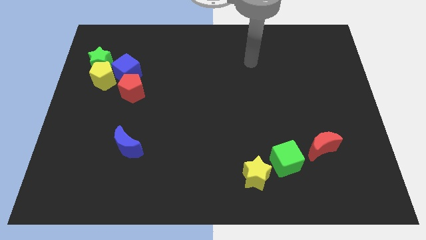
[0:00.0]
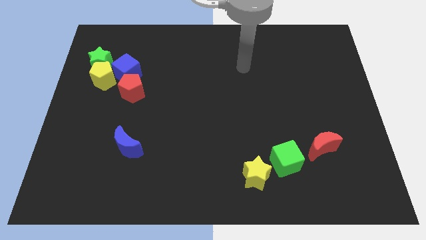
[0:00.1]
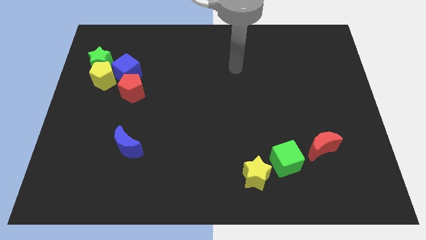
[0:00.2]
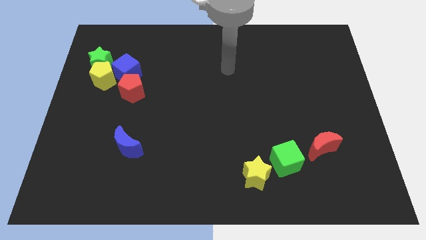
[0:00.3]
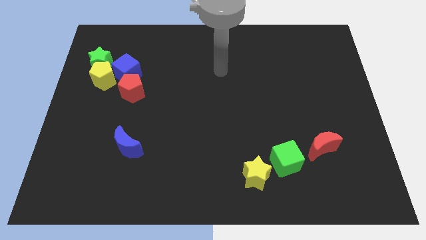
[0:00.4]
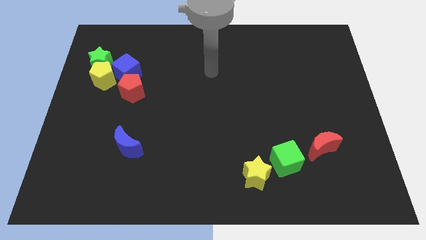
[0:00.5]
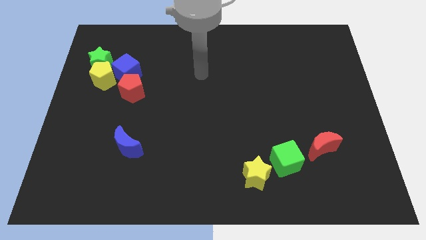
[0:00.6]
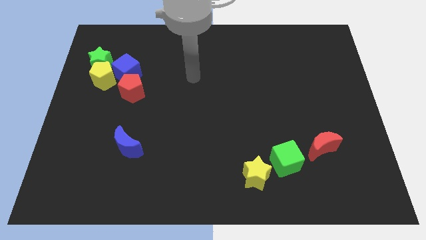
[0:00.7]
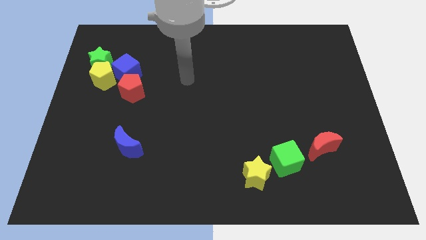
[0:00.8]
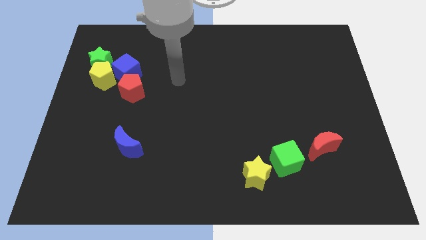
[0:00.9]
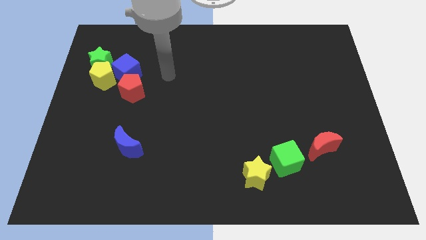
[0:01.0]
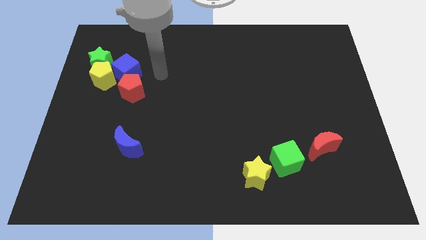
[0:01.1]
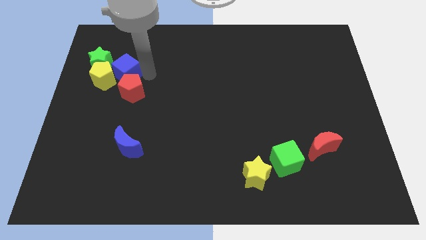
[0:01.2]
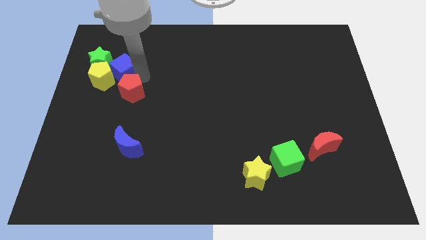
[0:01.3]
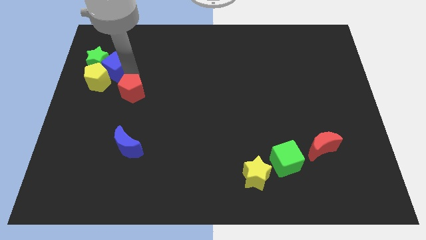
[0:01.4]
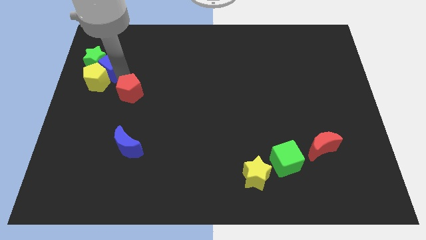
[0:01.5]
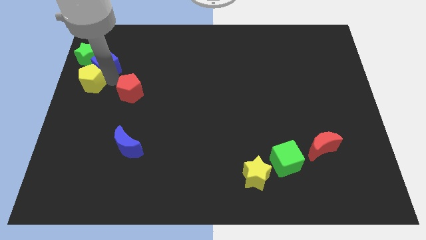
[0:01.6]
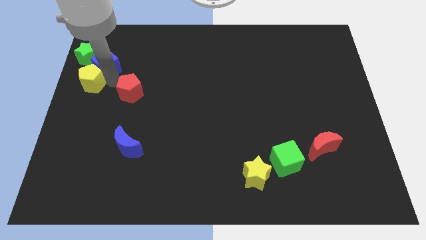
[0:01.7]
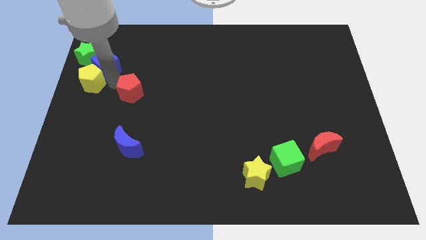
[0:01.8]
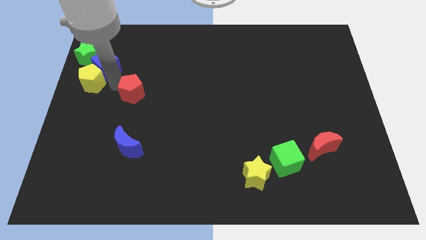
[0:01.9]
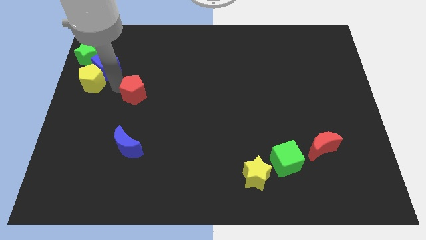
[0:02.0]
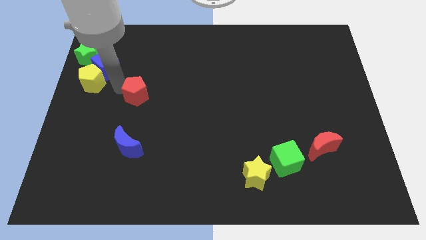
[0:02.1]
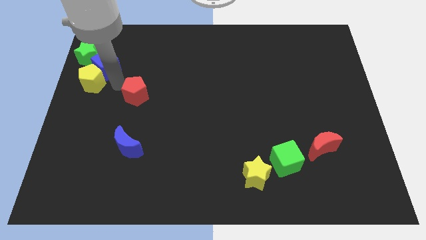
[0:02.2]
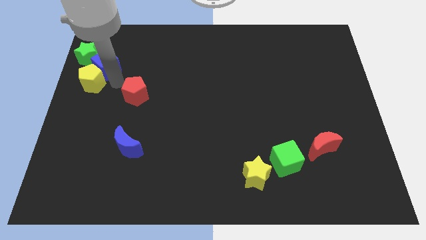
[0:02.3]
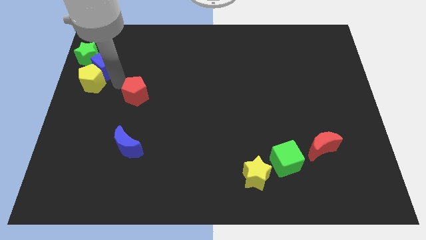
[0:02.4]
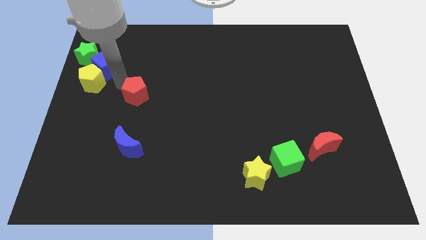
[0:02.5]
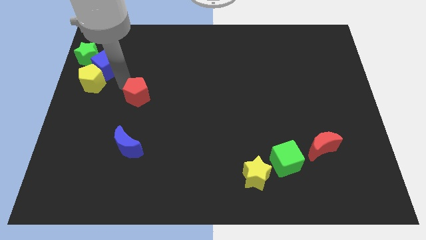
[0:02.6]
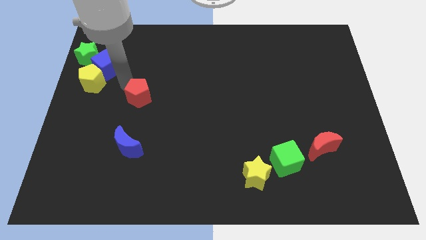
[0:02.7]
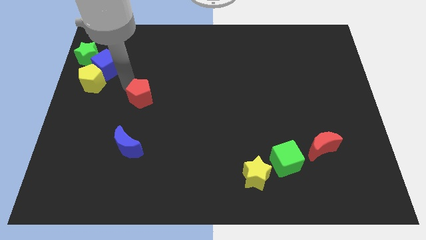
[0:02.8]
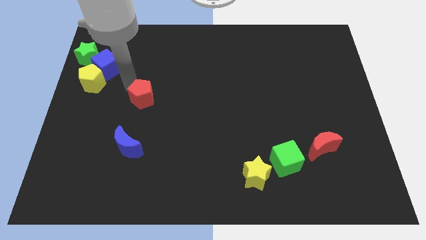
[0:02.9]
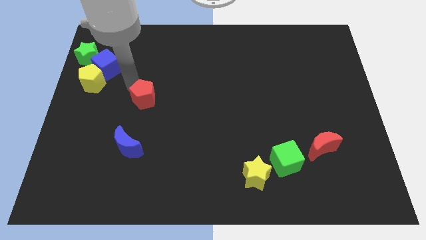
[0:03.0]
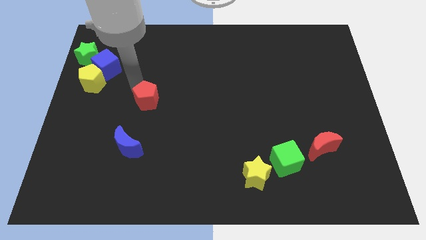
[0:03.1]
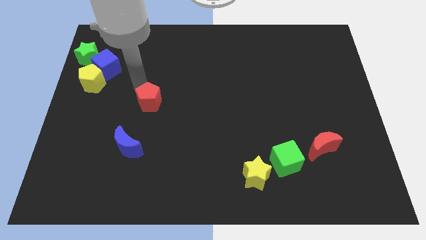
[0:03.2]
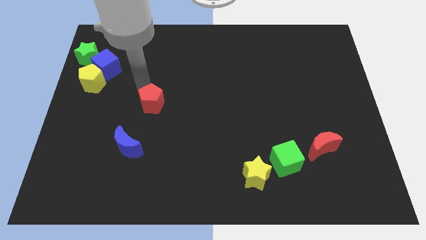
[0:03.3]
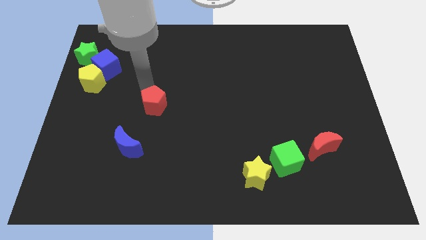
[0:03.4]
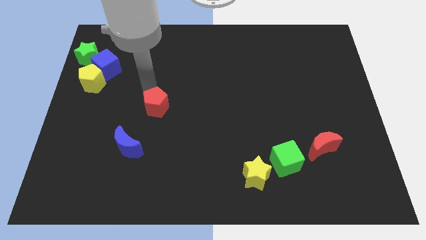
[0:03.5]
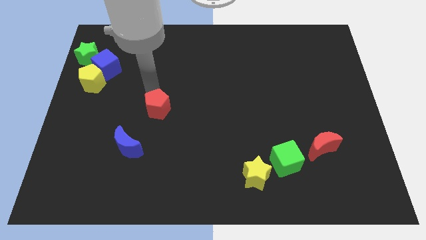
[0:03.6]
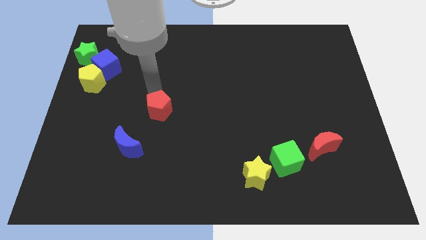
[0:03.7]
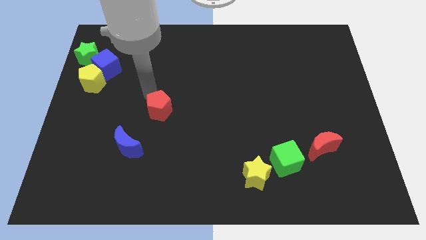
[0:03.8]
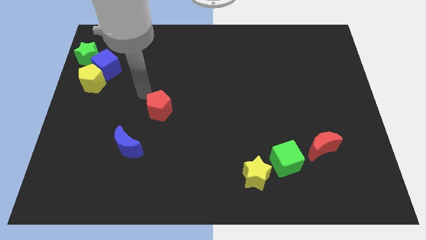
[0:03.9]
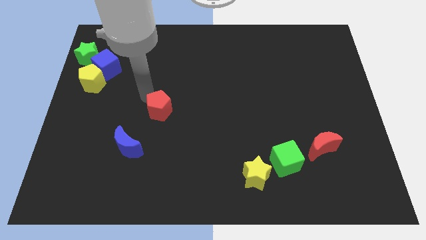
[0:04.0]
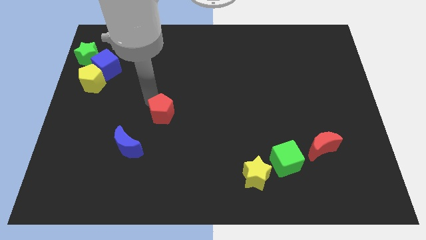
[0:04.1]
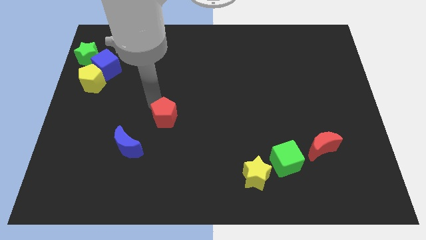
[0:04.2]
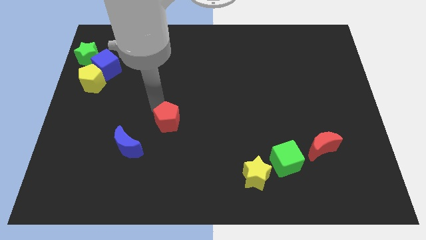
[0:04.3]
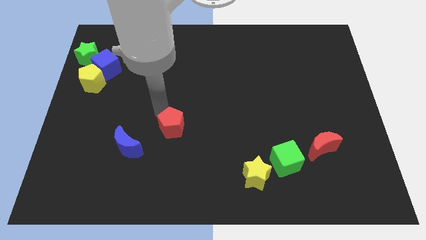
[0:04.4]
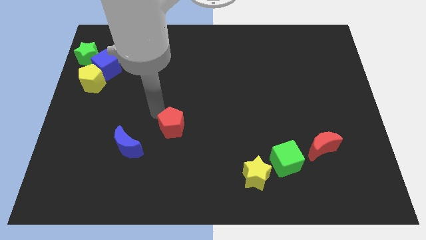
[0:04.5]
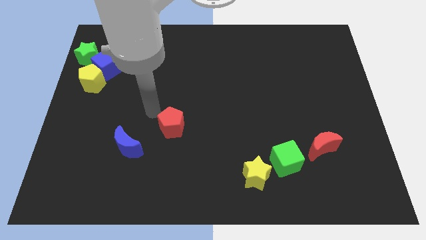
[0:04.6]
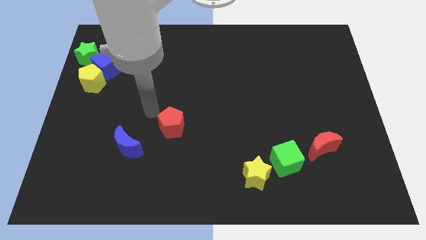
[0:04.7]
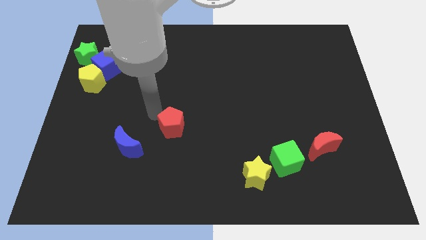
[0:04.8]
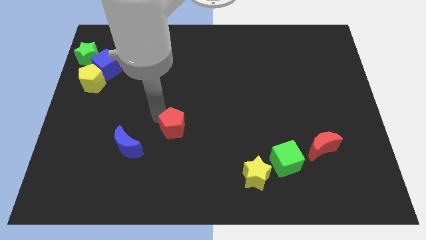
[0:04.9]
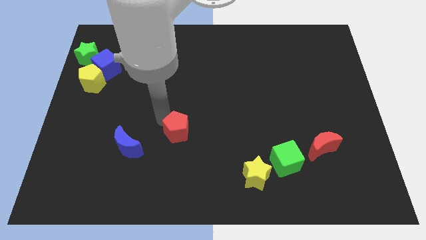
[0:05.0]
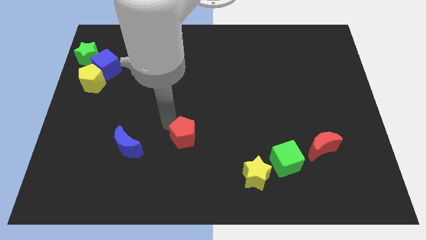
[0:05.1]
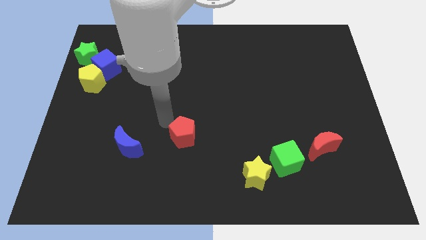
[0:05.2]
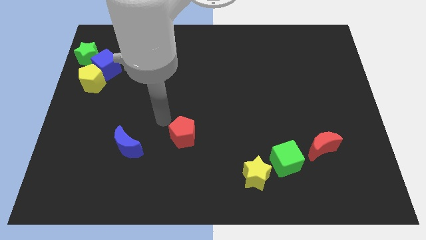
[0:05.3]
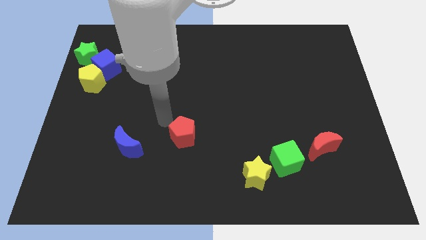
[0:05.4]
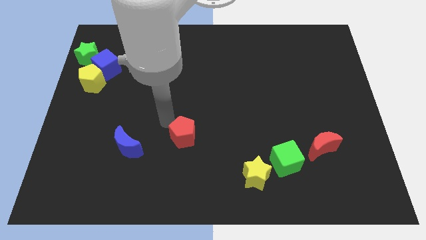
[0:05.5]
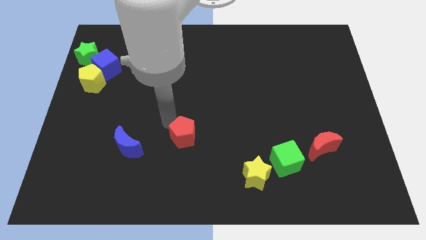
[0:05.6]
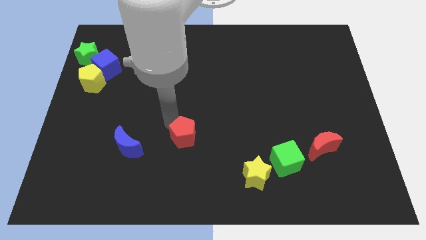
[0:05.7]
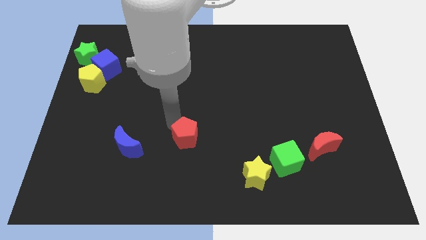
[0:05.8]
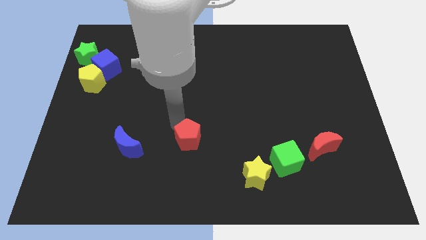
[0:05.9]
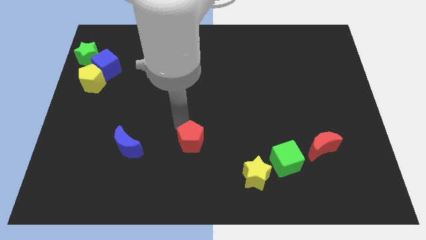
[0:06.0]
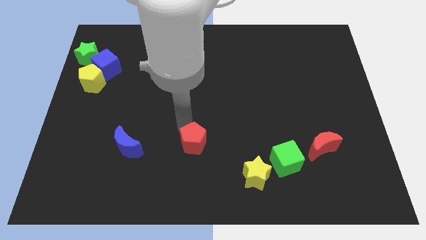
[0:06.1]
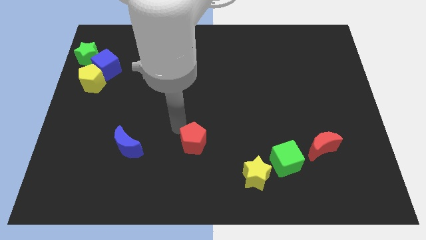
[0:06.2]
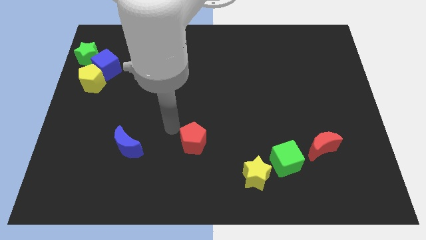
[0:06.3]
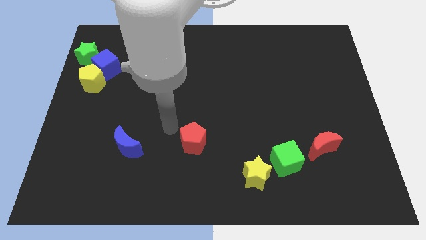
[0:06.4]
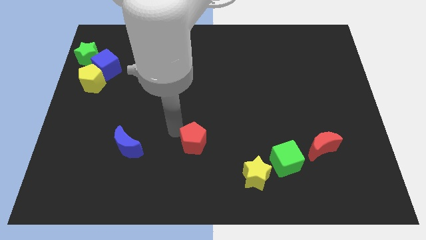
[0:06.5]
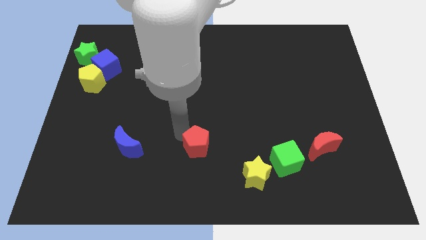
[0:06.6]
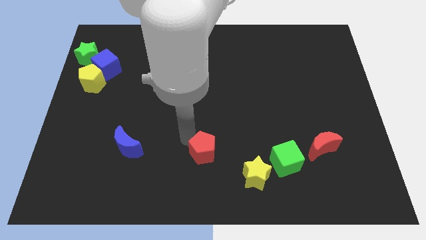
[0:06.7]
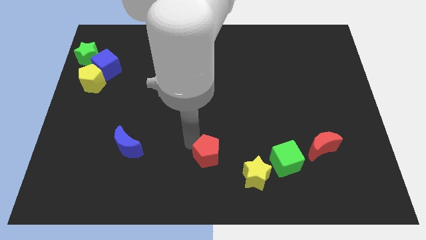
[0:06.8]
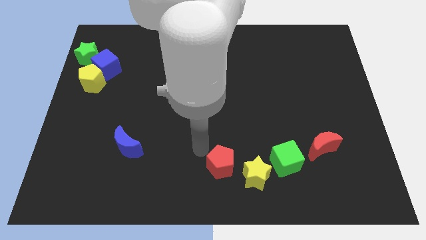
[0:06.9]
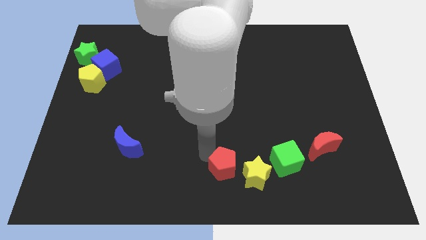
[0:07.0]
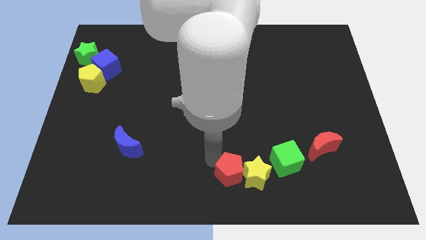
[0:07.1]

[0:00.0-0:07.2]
push the red pentagon towards the yellow star
